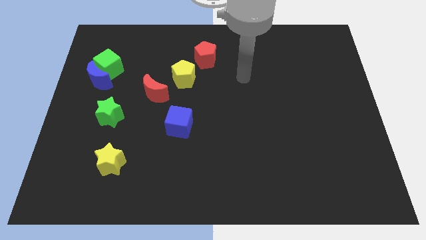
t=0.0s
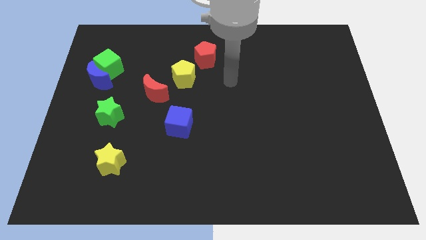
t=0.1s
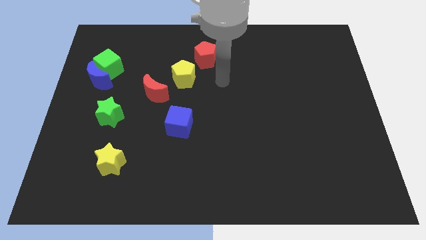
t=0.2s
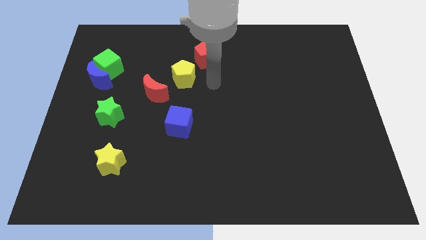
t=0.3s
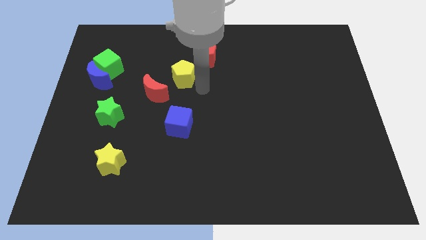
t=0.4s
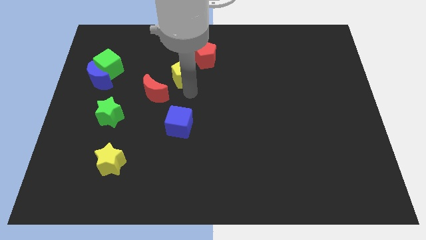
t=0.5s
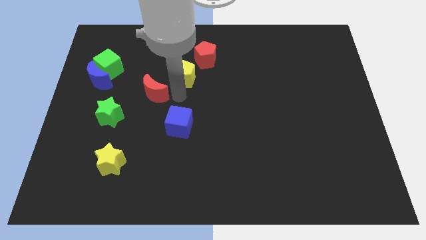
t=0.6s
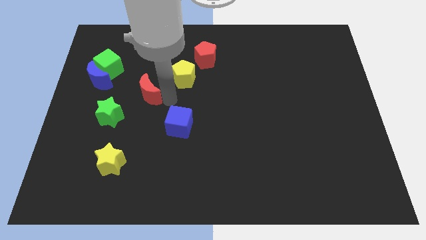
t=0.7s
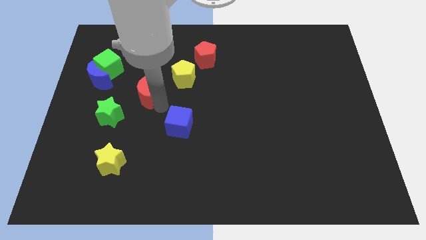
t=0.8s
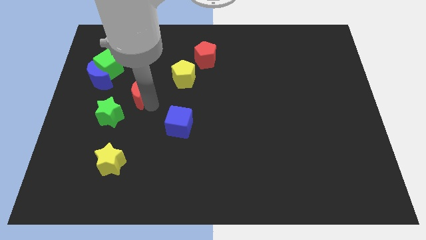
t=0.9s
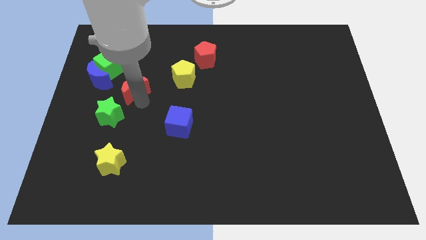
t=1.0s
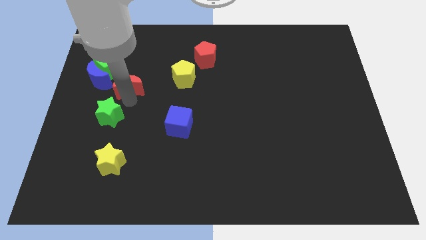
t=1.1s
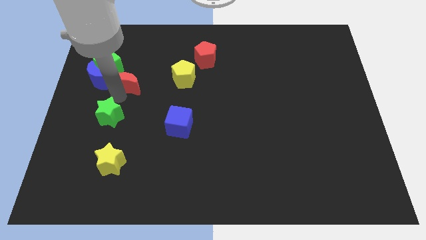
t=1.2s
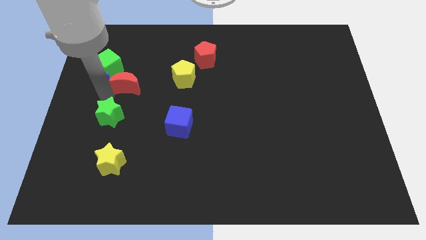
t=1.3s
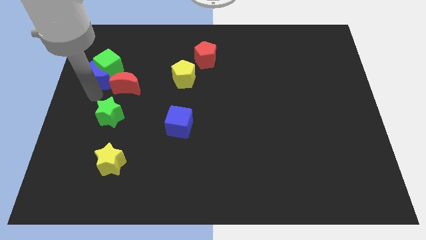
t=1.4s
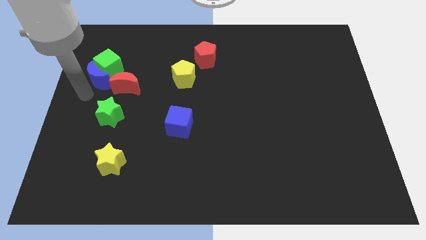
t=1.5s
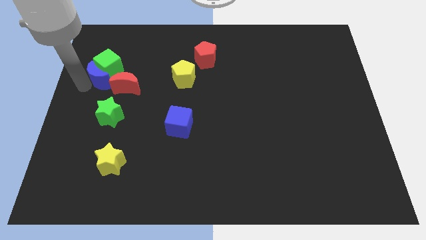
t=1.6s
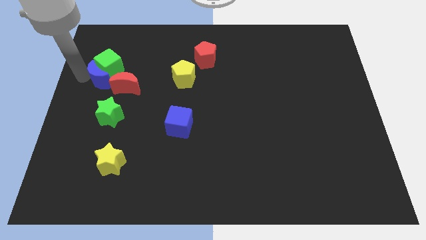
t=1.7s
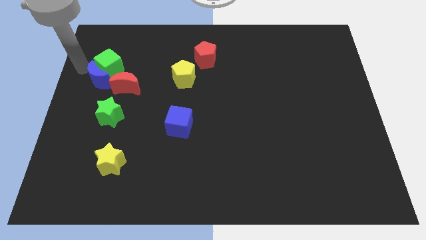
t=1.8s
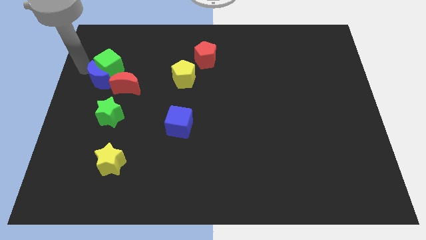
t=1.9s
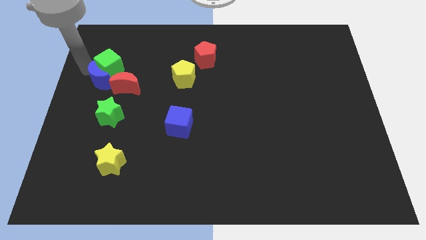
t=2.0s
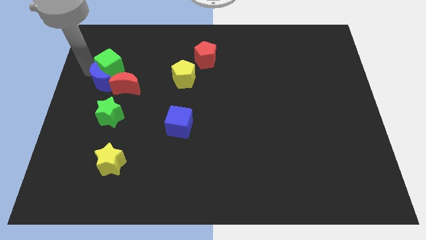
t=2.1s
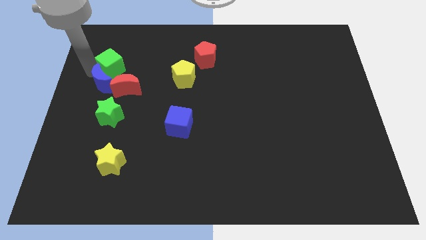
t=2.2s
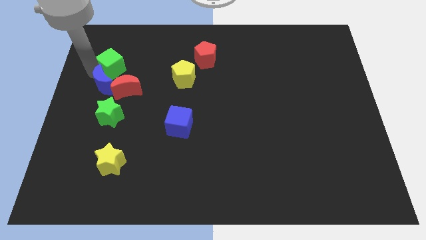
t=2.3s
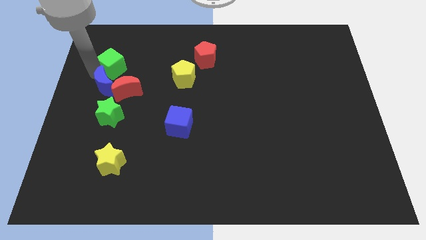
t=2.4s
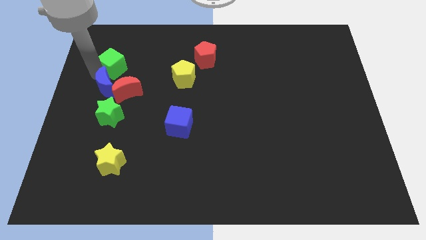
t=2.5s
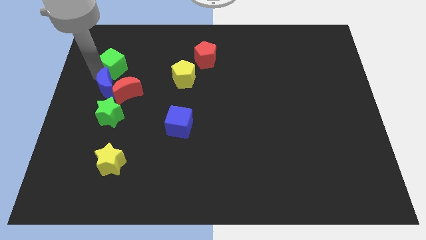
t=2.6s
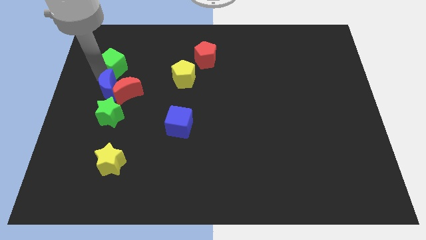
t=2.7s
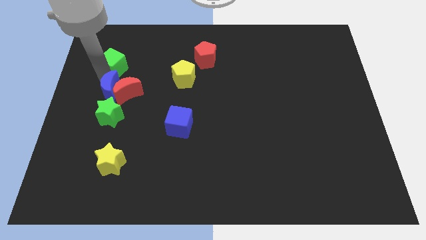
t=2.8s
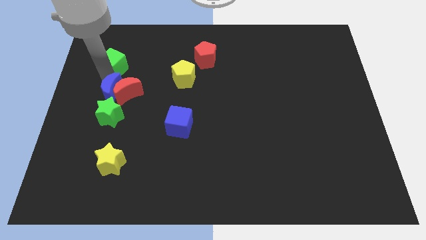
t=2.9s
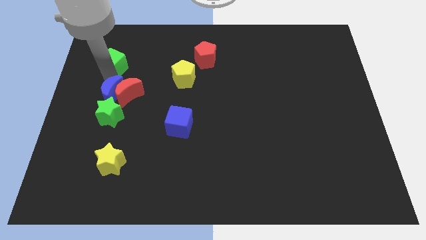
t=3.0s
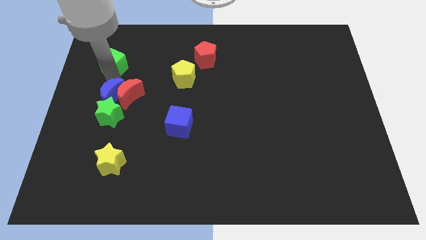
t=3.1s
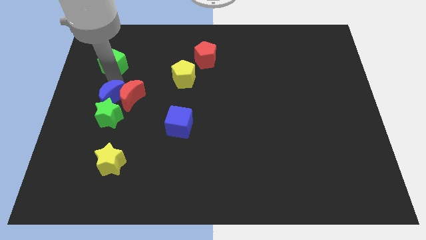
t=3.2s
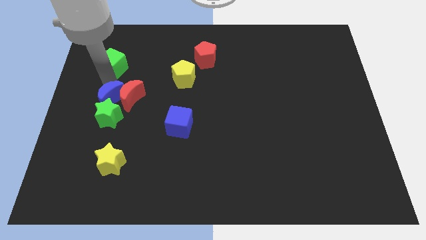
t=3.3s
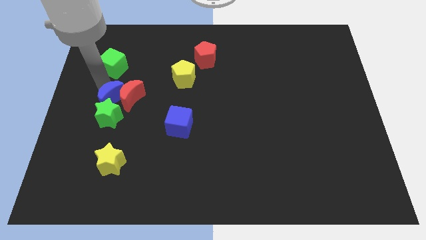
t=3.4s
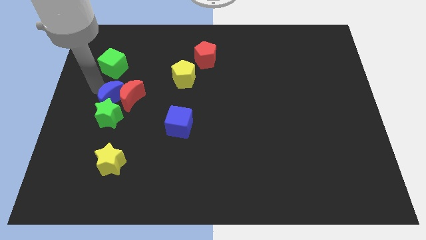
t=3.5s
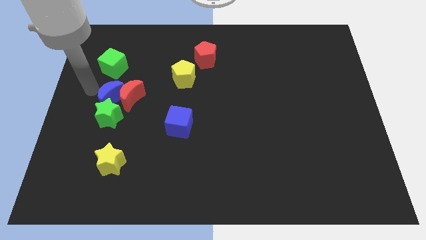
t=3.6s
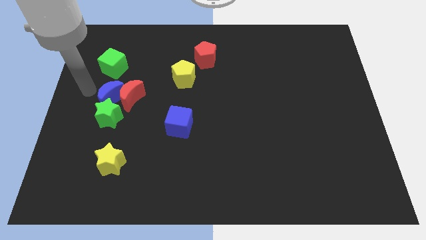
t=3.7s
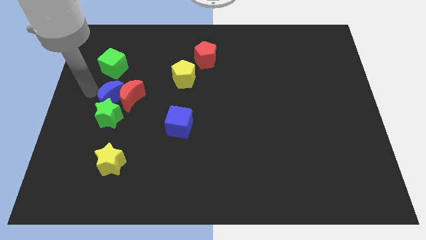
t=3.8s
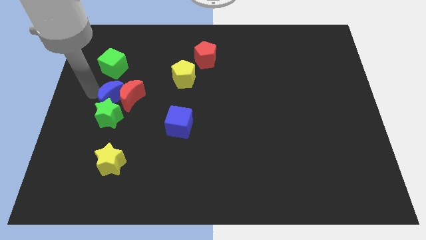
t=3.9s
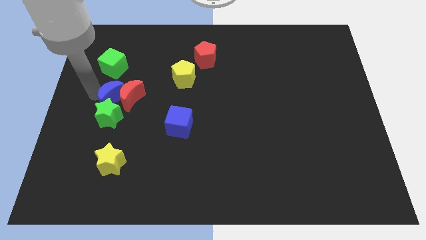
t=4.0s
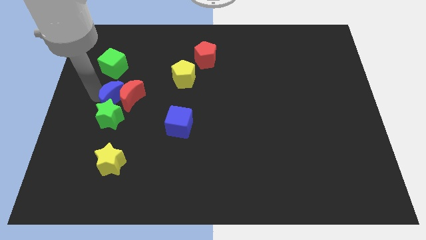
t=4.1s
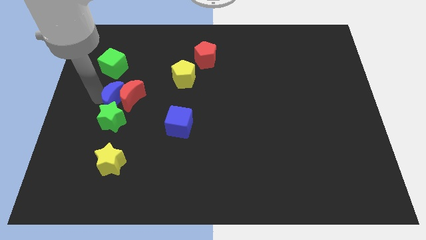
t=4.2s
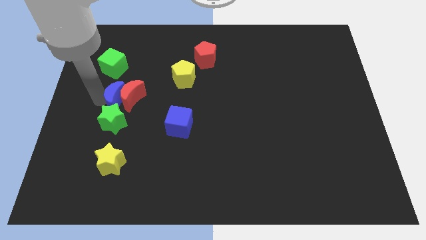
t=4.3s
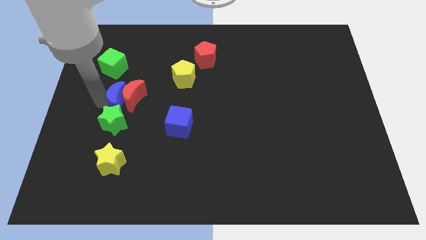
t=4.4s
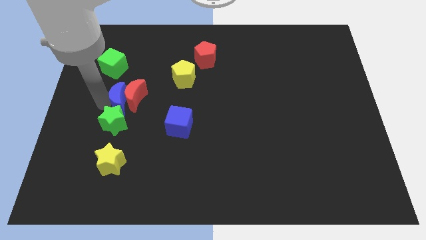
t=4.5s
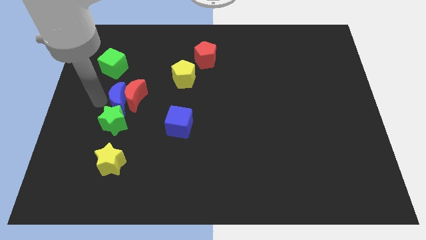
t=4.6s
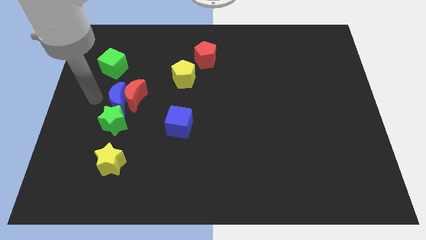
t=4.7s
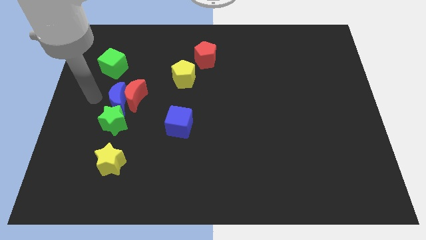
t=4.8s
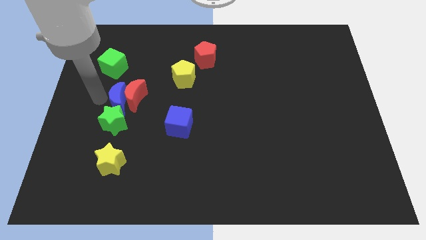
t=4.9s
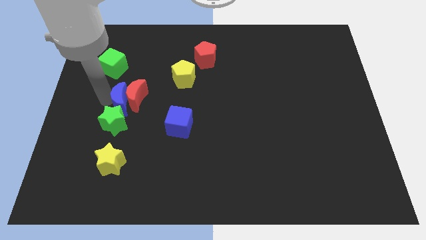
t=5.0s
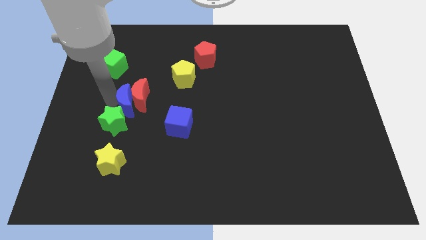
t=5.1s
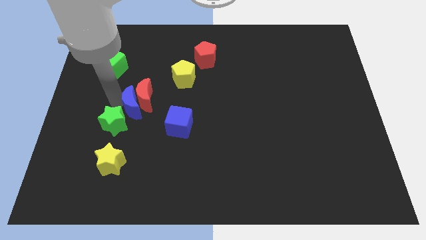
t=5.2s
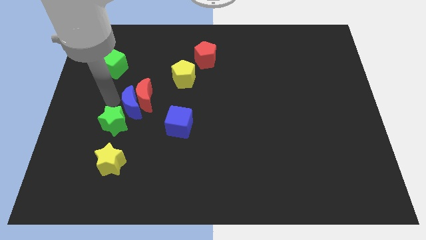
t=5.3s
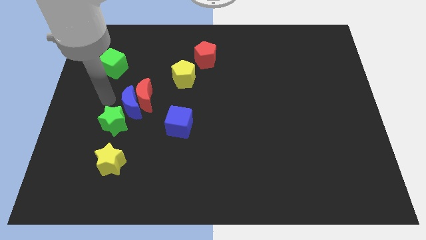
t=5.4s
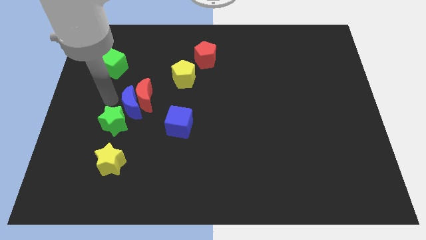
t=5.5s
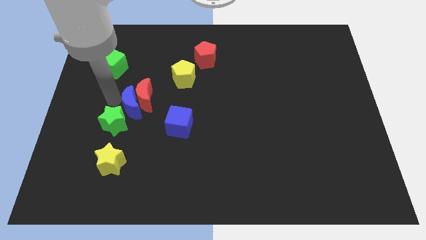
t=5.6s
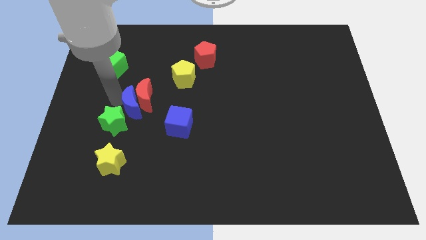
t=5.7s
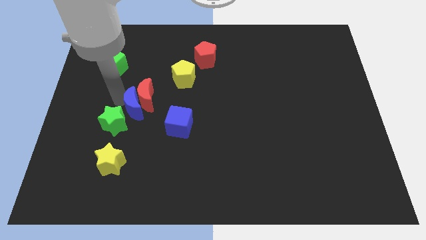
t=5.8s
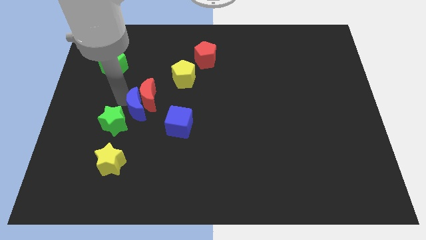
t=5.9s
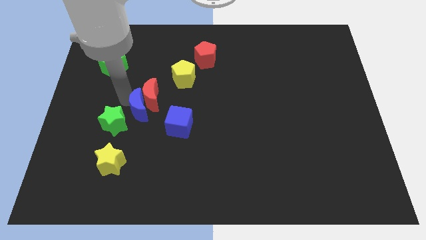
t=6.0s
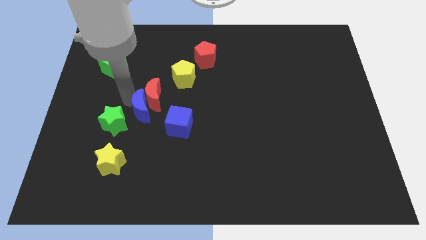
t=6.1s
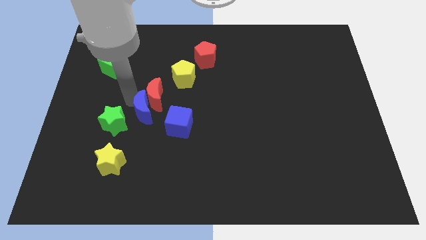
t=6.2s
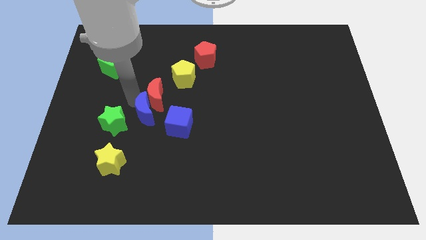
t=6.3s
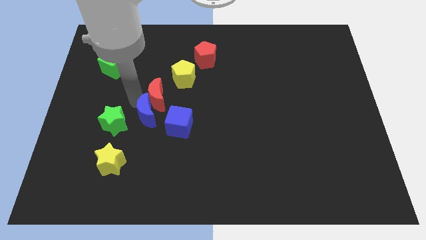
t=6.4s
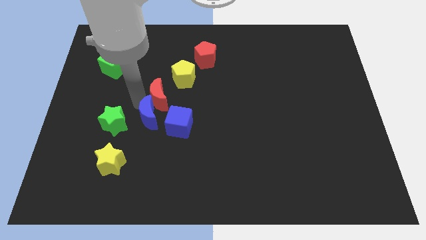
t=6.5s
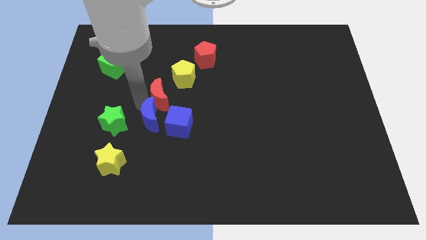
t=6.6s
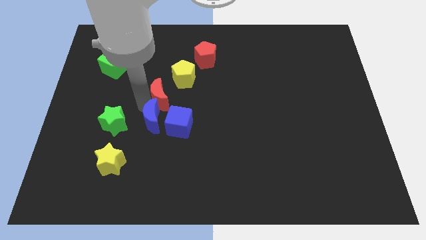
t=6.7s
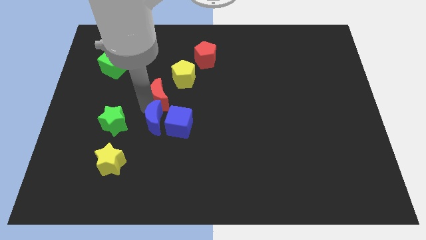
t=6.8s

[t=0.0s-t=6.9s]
push the blue moon close to the blue cube
